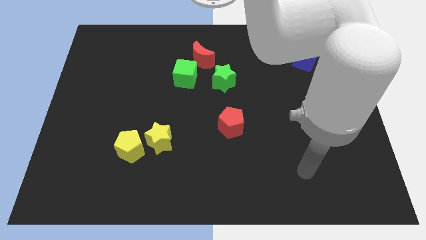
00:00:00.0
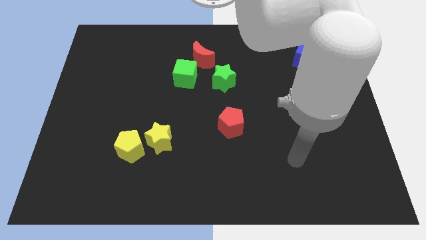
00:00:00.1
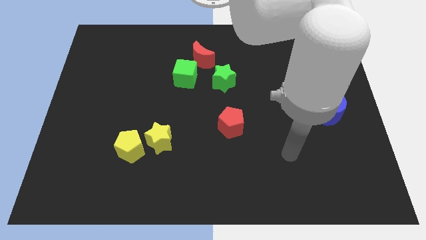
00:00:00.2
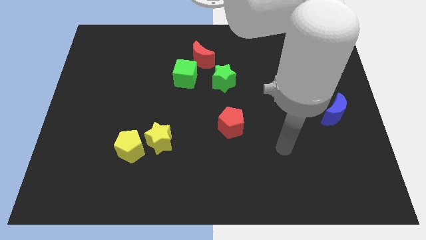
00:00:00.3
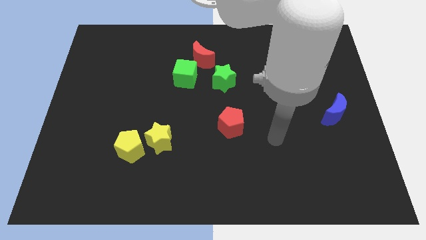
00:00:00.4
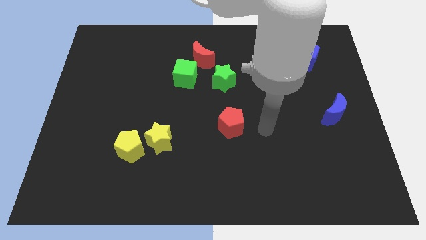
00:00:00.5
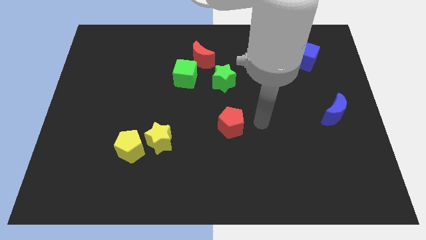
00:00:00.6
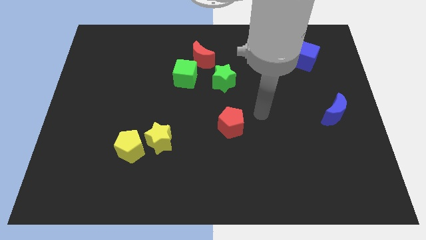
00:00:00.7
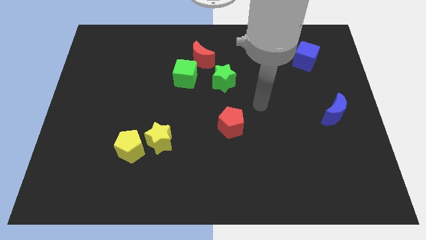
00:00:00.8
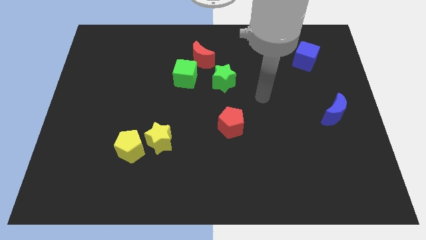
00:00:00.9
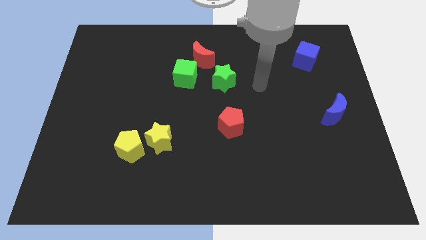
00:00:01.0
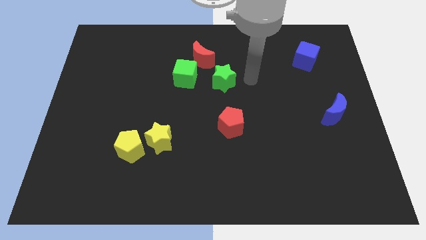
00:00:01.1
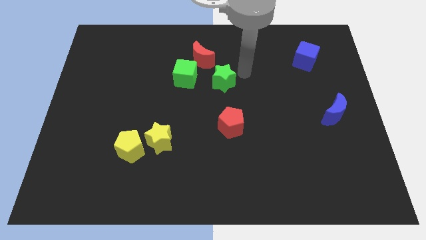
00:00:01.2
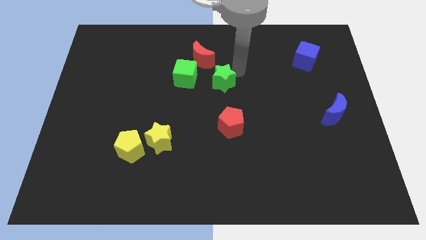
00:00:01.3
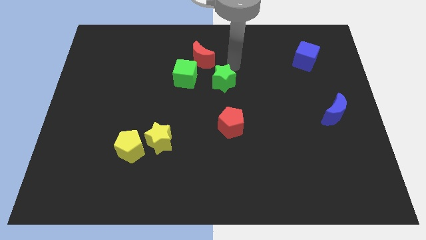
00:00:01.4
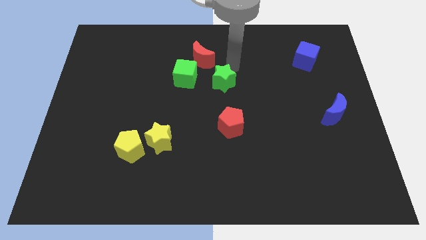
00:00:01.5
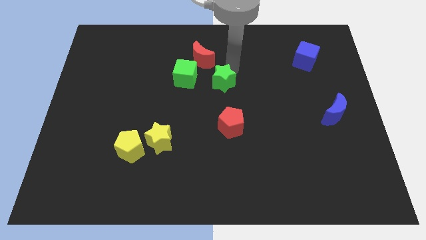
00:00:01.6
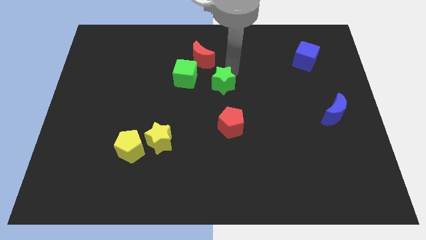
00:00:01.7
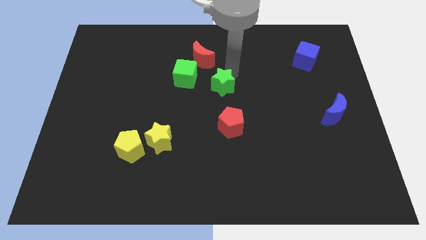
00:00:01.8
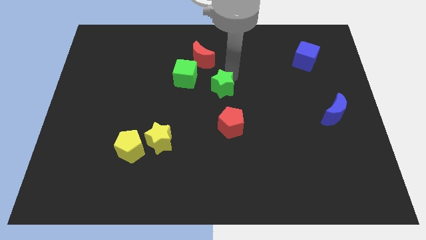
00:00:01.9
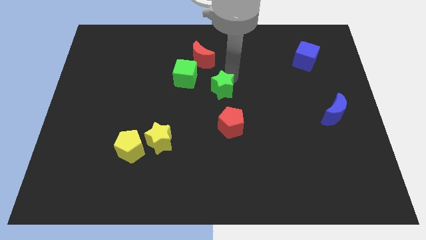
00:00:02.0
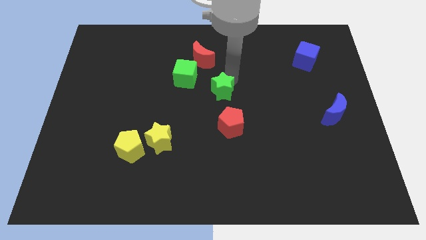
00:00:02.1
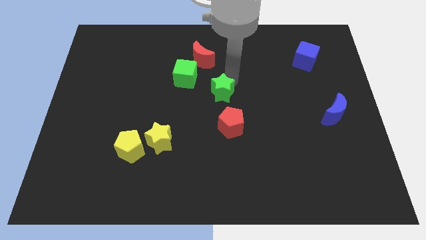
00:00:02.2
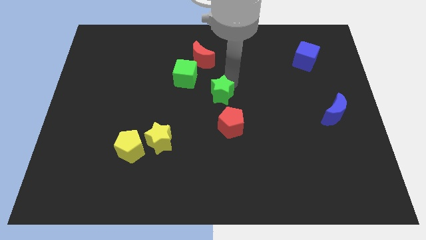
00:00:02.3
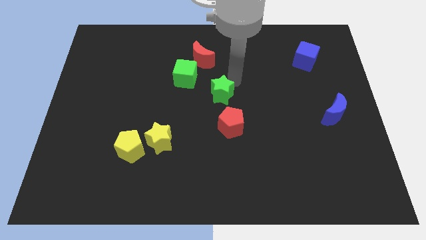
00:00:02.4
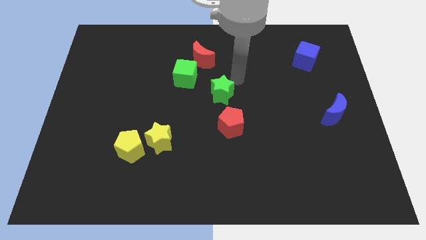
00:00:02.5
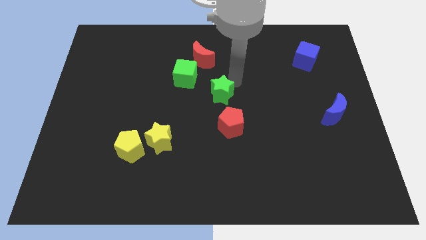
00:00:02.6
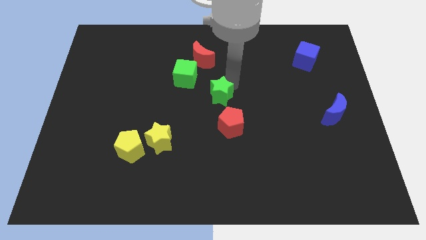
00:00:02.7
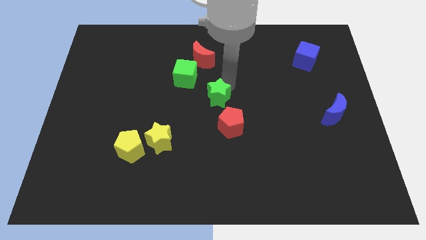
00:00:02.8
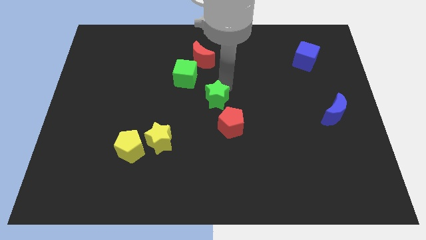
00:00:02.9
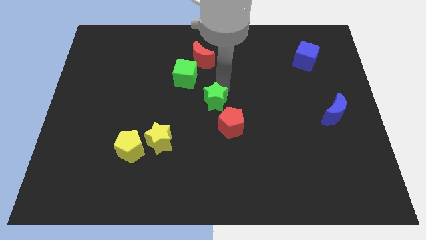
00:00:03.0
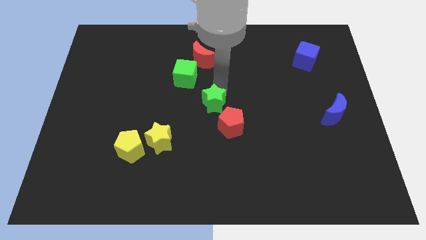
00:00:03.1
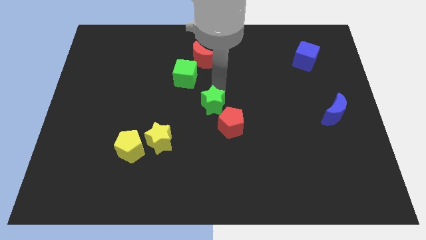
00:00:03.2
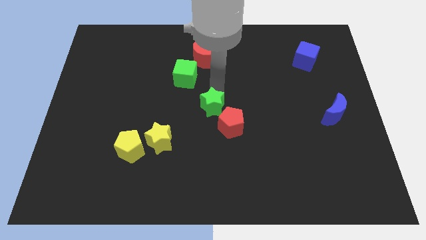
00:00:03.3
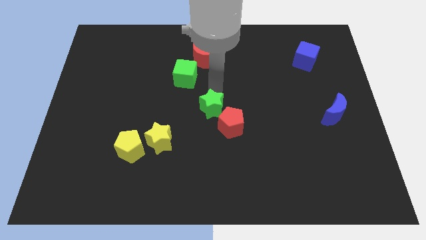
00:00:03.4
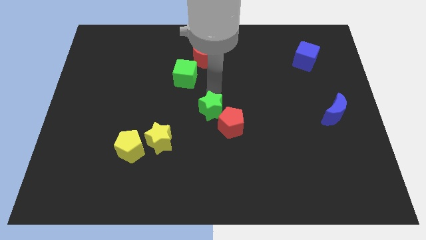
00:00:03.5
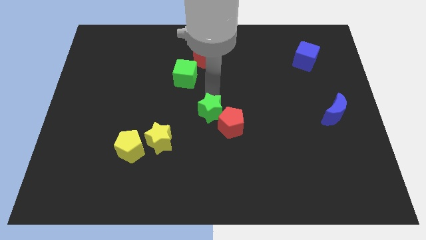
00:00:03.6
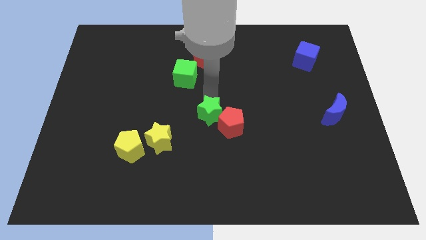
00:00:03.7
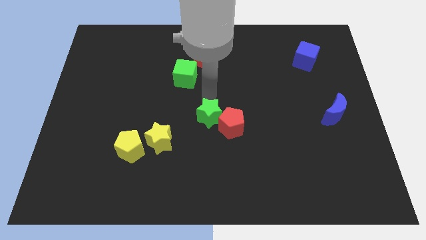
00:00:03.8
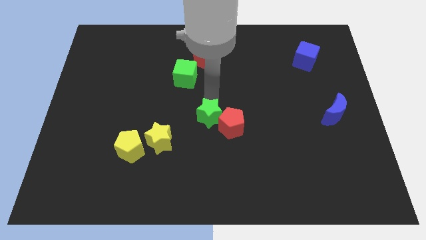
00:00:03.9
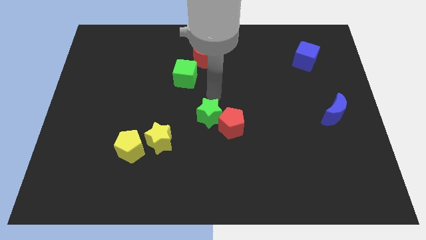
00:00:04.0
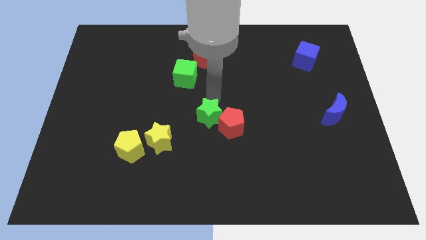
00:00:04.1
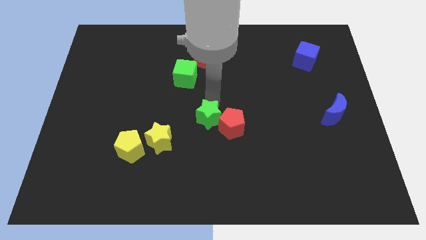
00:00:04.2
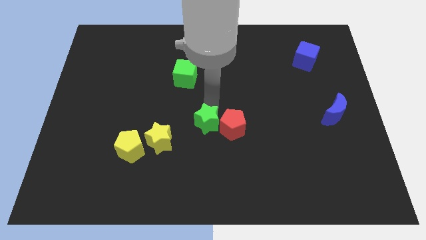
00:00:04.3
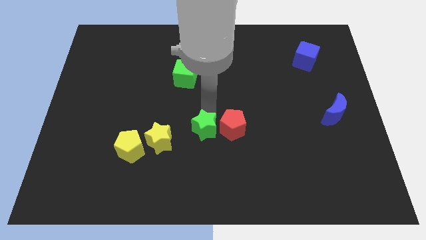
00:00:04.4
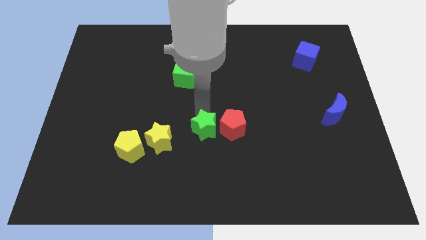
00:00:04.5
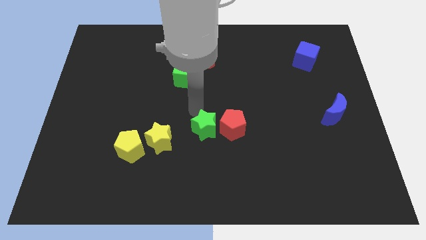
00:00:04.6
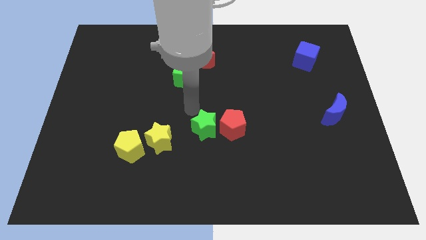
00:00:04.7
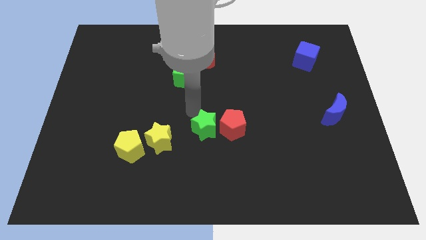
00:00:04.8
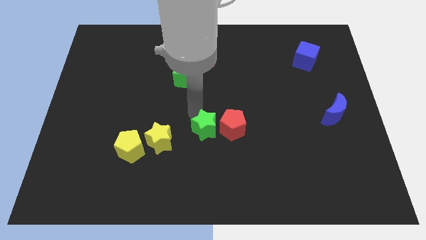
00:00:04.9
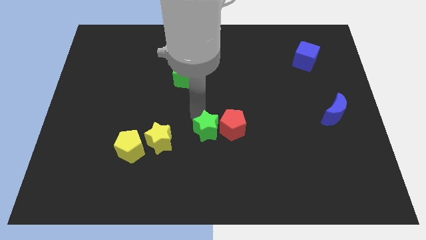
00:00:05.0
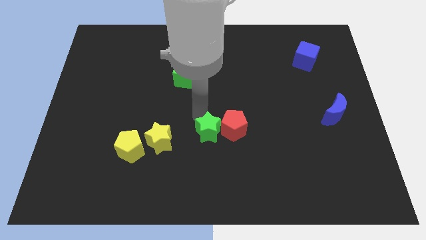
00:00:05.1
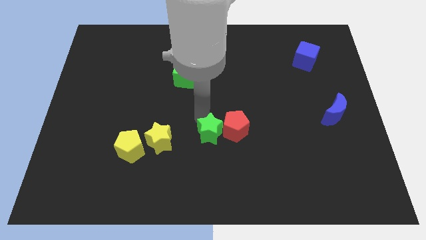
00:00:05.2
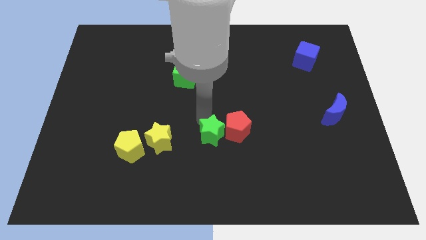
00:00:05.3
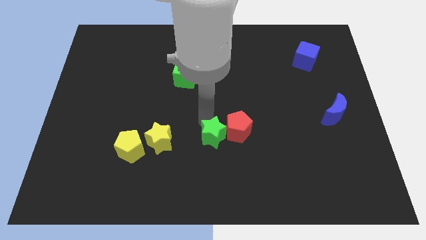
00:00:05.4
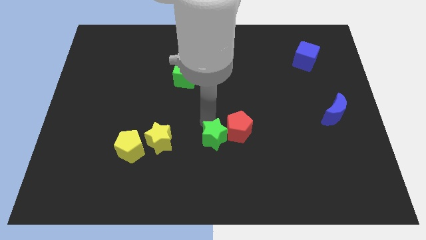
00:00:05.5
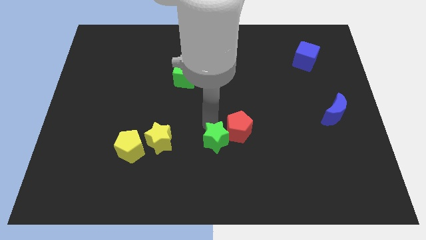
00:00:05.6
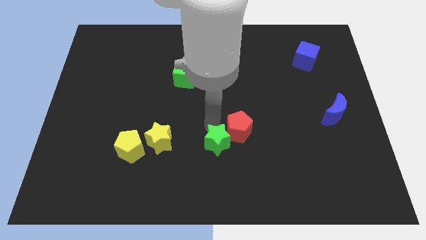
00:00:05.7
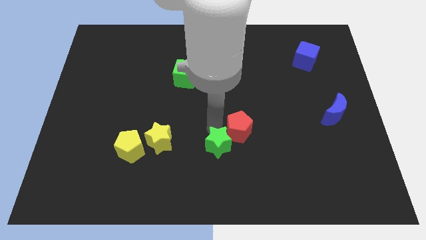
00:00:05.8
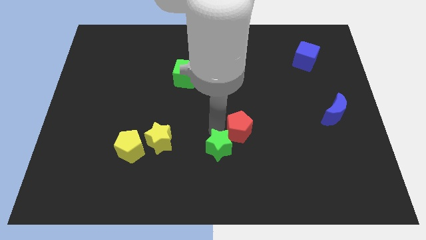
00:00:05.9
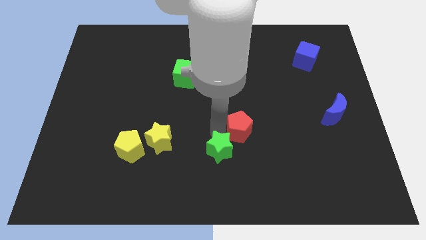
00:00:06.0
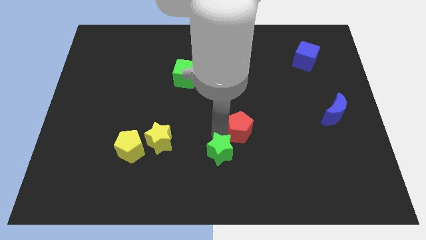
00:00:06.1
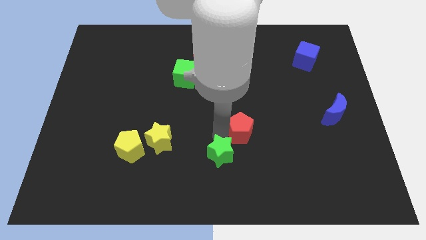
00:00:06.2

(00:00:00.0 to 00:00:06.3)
move the green star to the bottom side

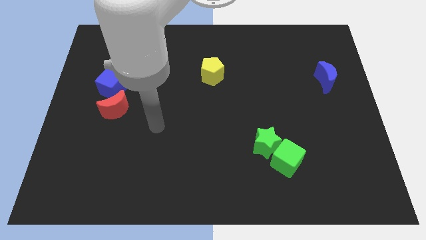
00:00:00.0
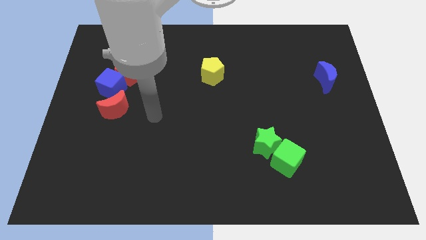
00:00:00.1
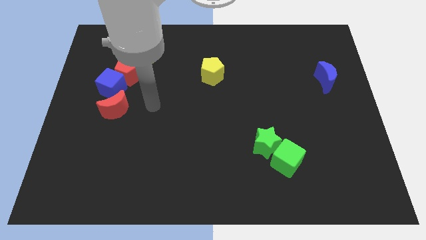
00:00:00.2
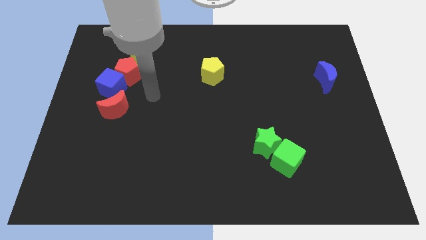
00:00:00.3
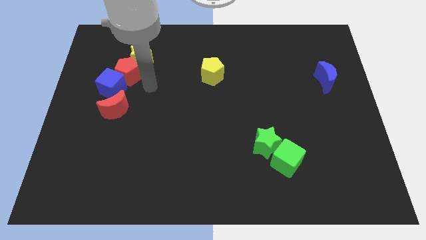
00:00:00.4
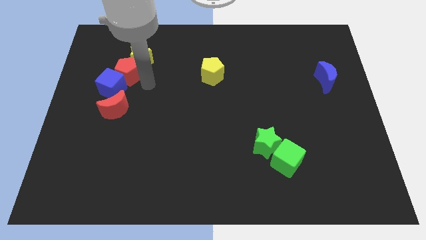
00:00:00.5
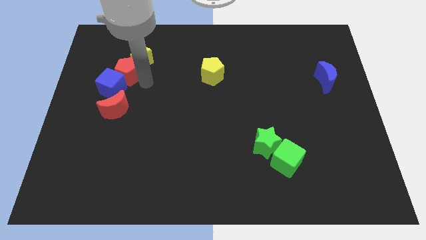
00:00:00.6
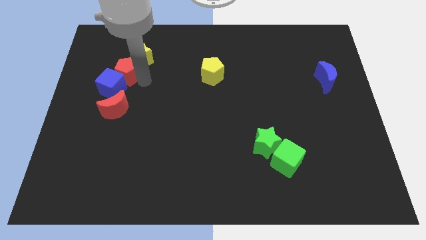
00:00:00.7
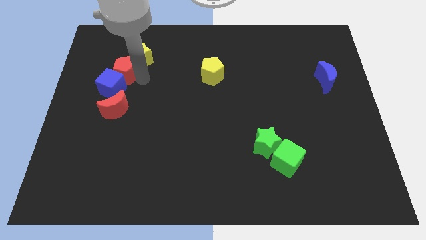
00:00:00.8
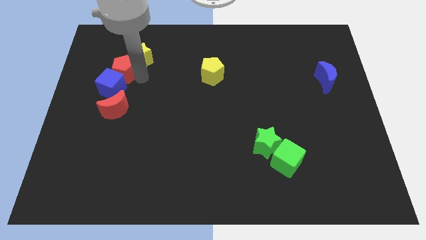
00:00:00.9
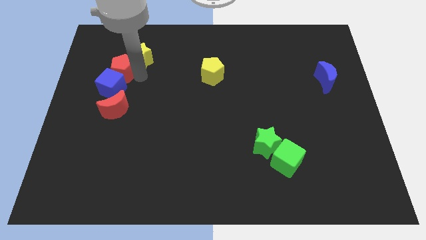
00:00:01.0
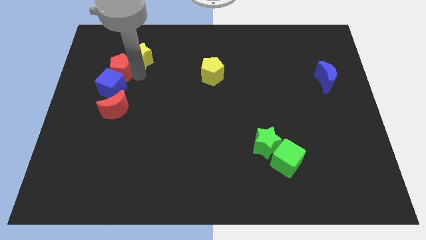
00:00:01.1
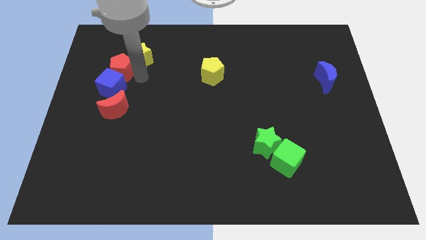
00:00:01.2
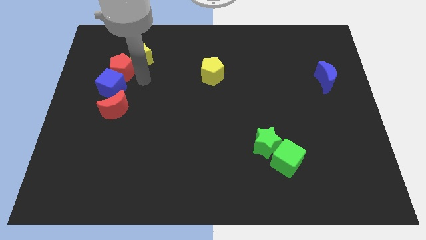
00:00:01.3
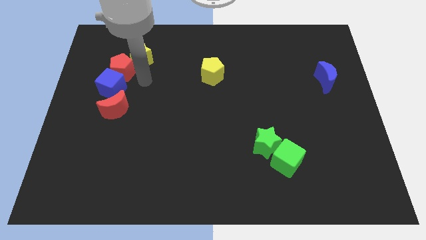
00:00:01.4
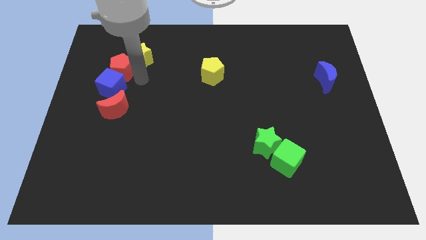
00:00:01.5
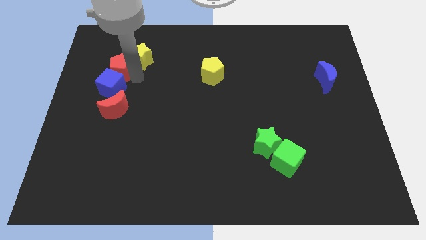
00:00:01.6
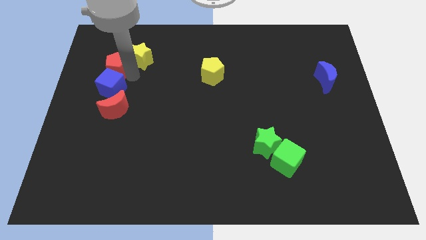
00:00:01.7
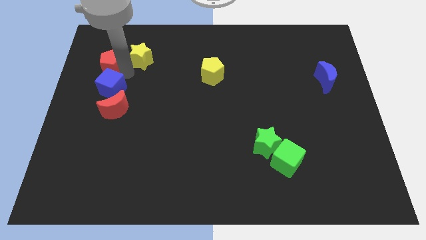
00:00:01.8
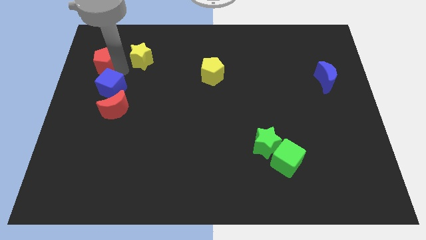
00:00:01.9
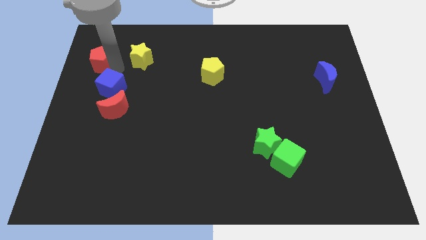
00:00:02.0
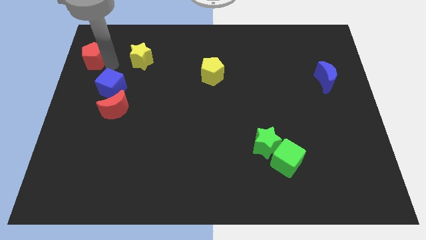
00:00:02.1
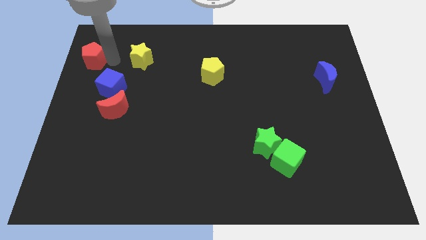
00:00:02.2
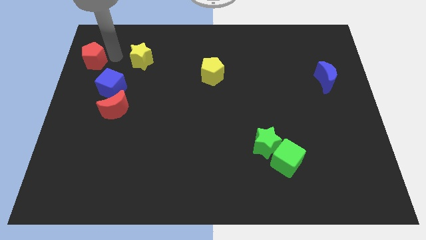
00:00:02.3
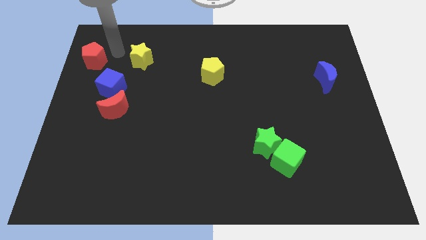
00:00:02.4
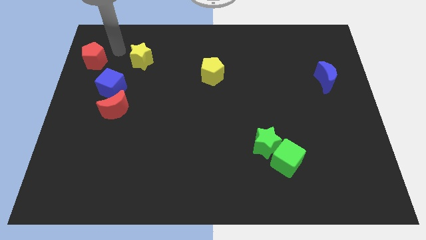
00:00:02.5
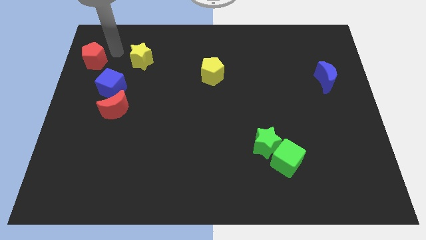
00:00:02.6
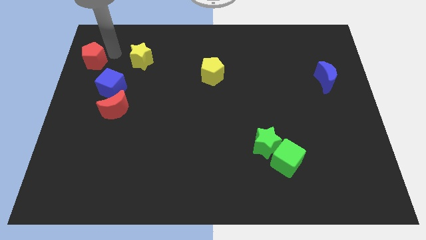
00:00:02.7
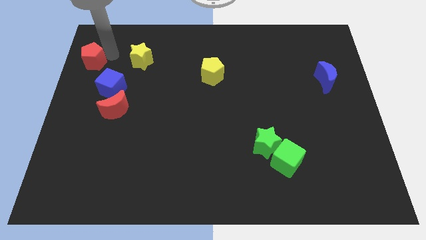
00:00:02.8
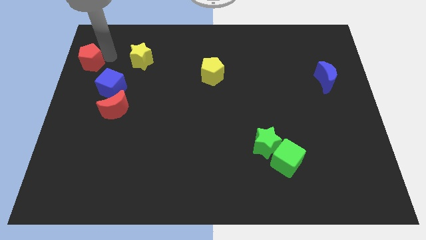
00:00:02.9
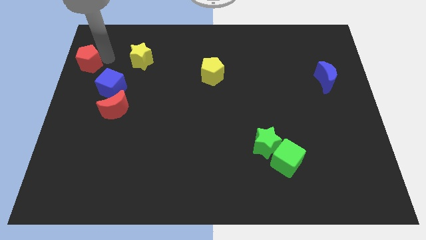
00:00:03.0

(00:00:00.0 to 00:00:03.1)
slide the red pentagon to the center left
